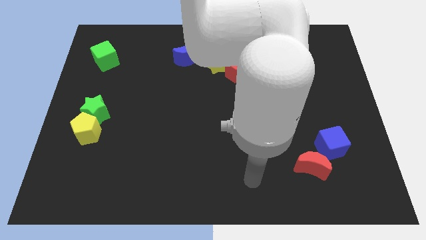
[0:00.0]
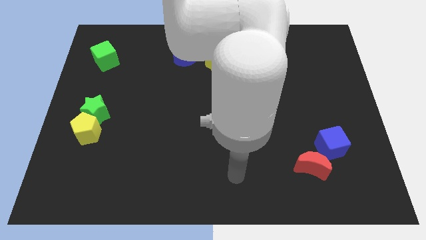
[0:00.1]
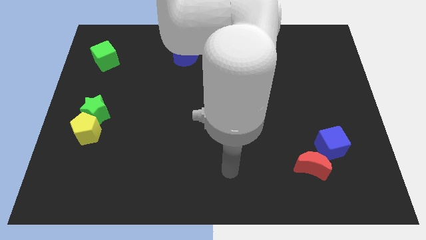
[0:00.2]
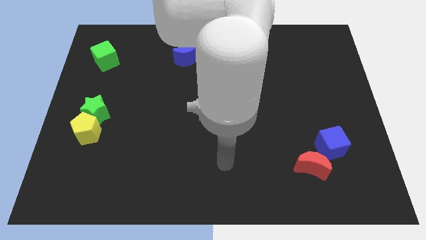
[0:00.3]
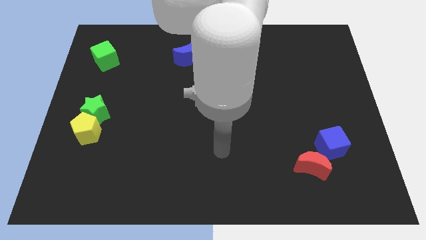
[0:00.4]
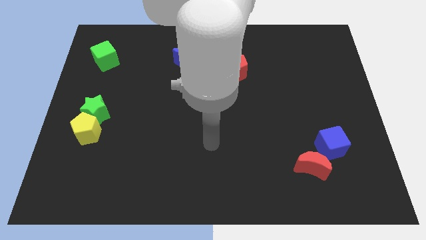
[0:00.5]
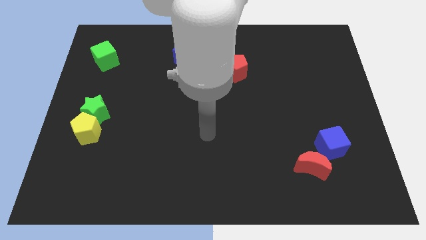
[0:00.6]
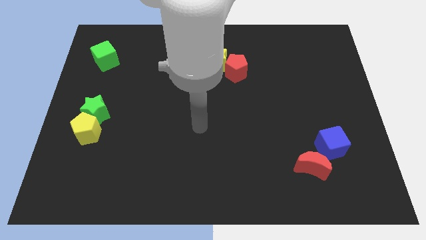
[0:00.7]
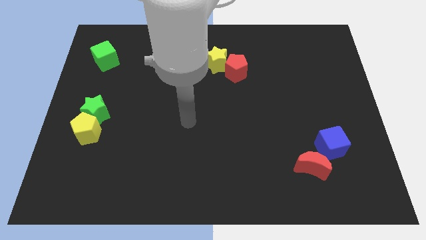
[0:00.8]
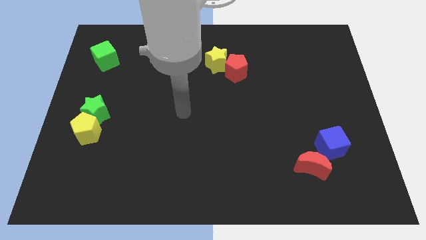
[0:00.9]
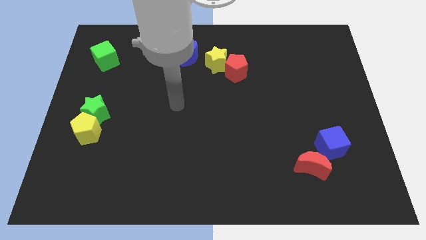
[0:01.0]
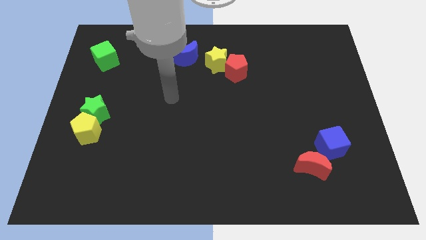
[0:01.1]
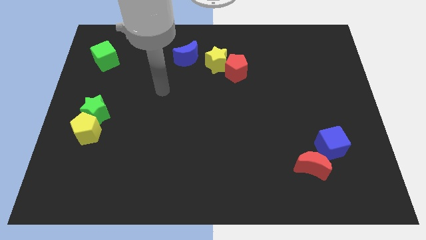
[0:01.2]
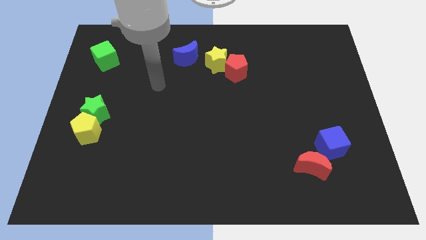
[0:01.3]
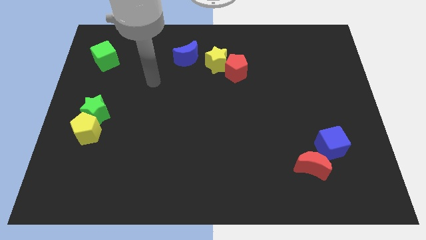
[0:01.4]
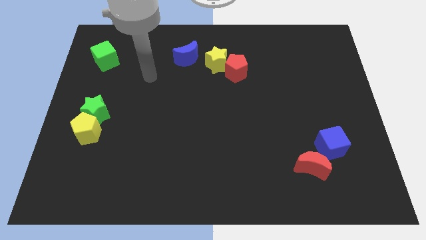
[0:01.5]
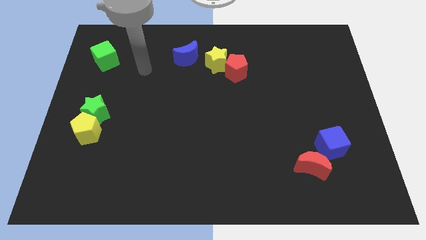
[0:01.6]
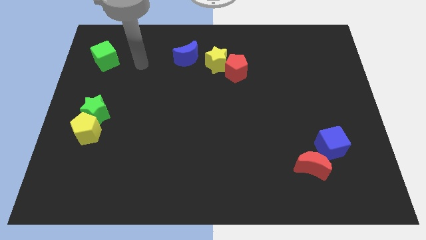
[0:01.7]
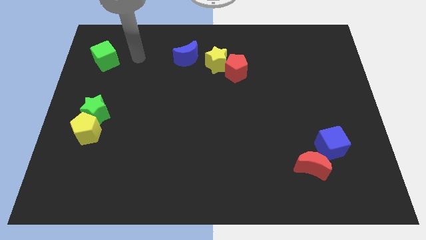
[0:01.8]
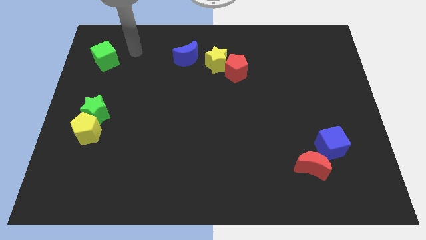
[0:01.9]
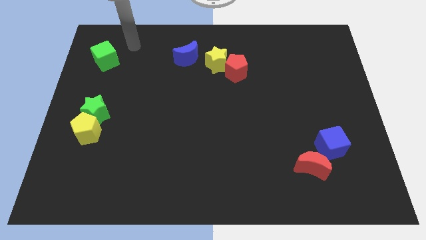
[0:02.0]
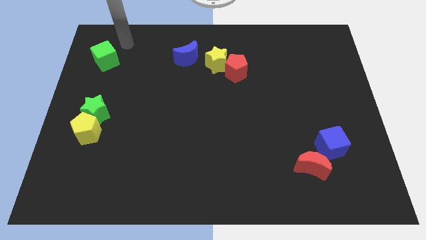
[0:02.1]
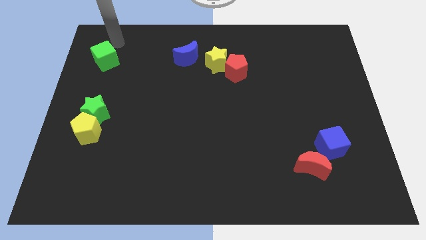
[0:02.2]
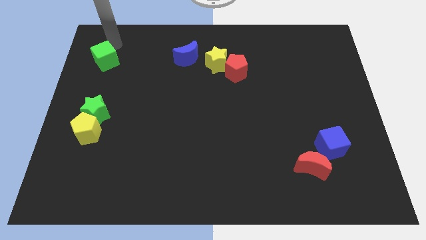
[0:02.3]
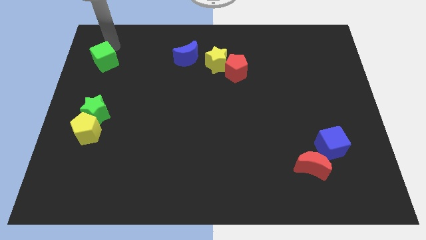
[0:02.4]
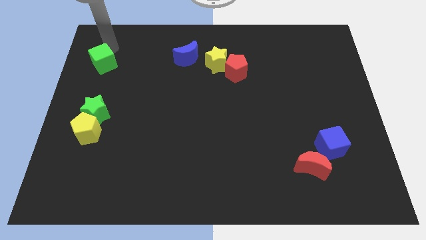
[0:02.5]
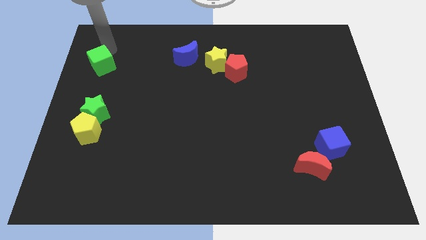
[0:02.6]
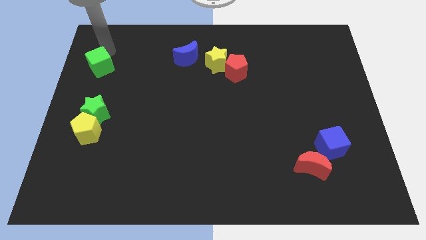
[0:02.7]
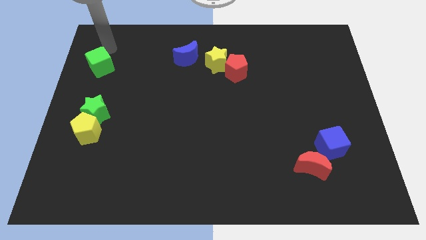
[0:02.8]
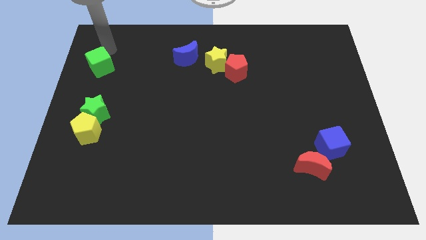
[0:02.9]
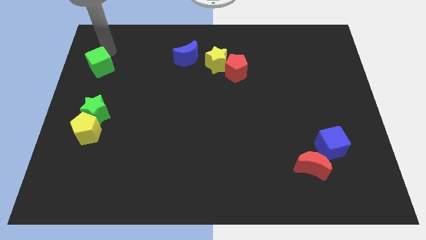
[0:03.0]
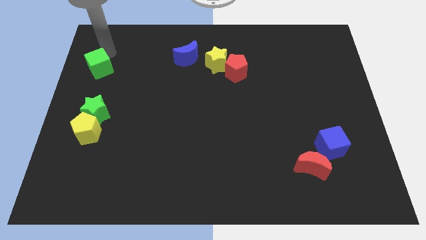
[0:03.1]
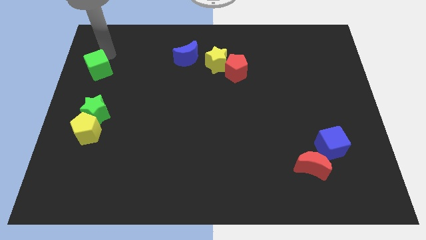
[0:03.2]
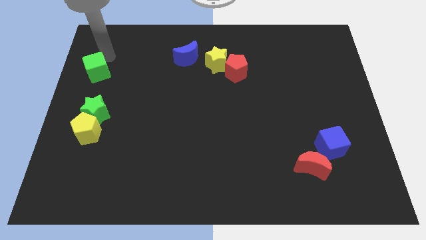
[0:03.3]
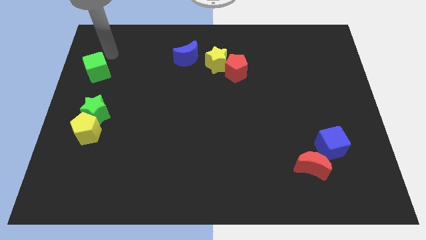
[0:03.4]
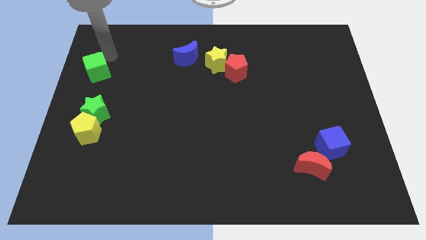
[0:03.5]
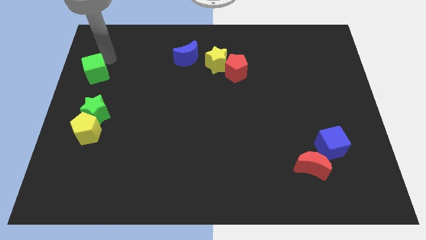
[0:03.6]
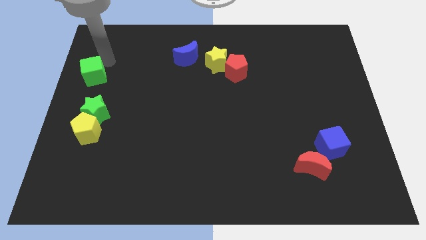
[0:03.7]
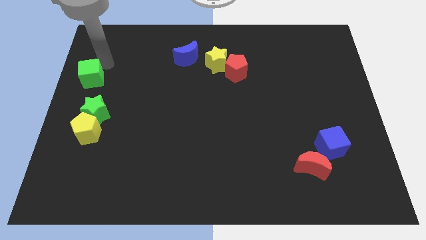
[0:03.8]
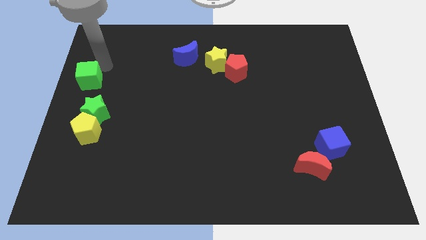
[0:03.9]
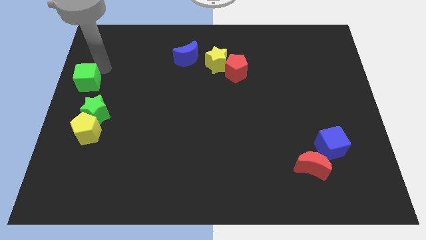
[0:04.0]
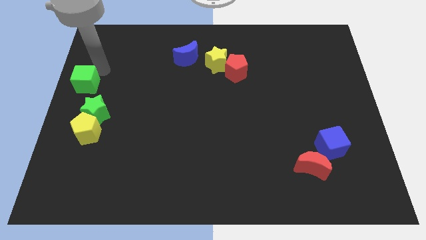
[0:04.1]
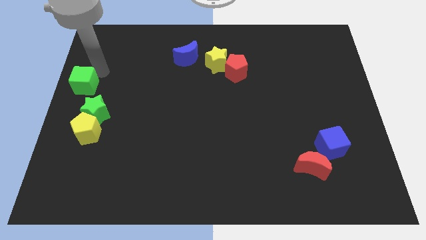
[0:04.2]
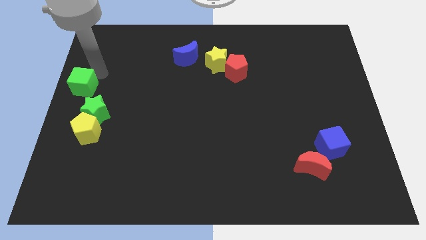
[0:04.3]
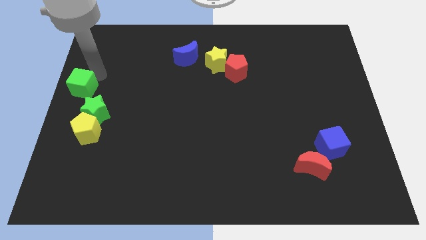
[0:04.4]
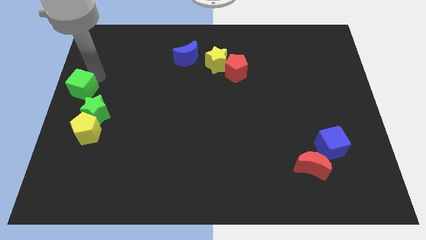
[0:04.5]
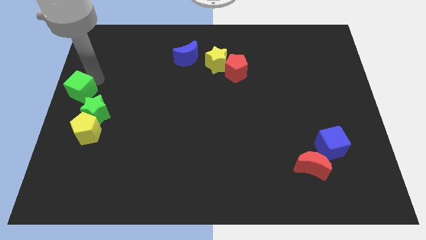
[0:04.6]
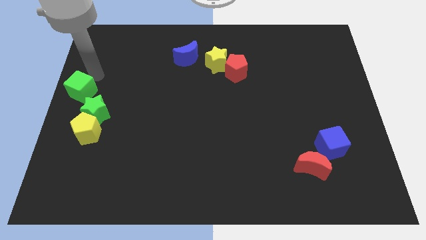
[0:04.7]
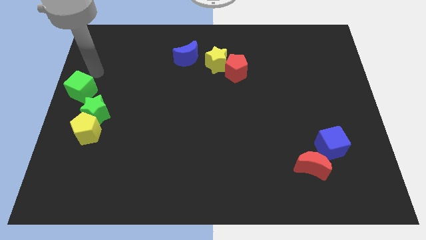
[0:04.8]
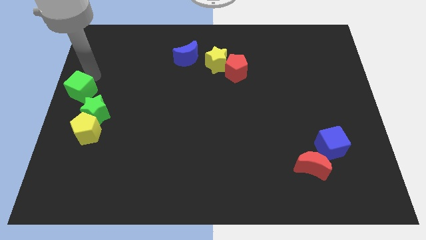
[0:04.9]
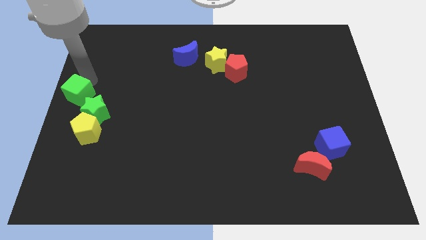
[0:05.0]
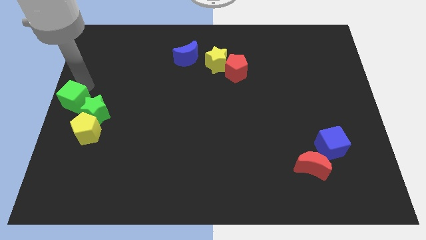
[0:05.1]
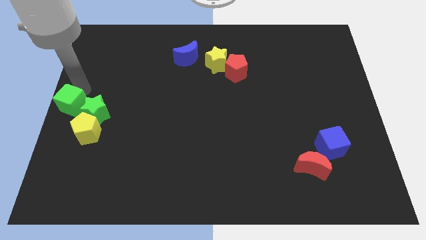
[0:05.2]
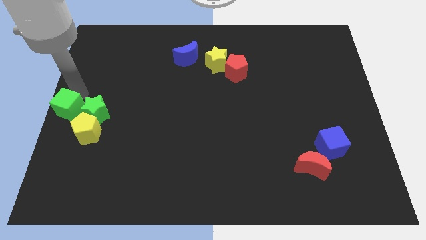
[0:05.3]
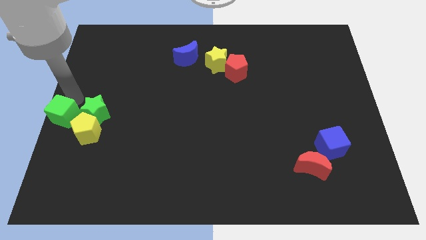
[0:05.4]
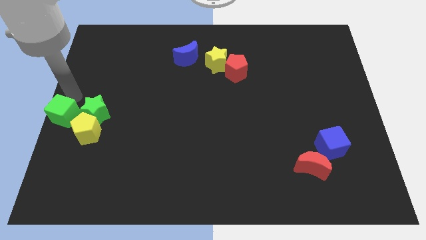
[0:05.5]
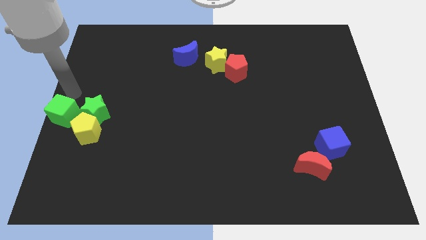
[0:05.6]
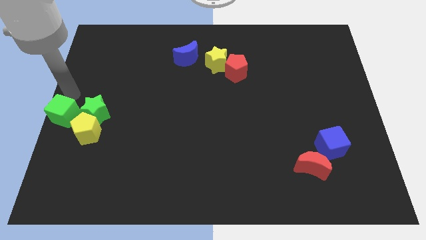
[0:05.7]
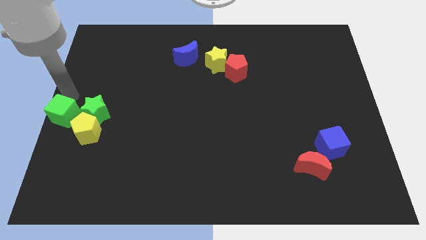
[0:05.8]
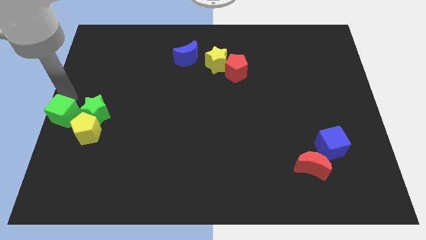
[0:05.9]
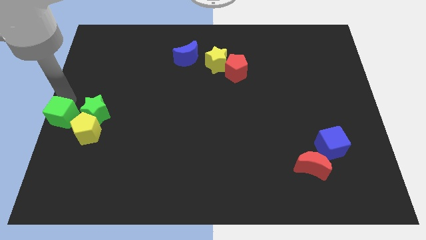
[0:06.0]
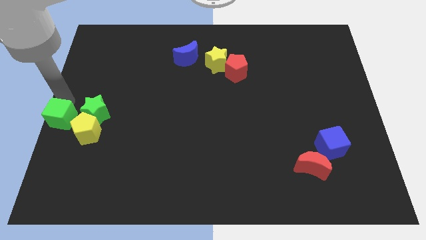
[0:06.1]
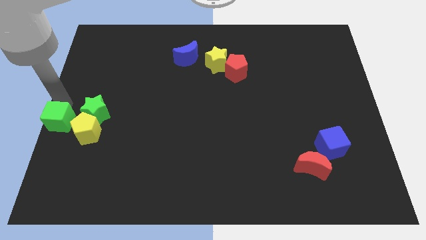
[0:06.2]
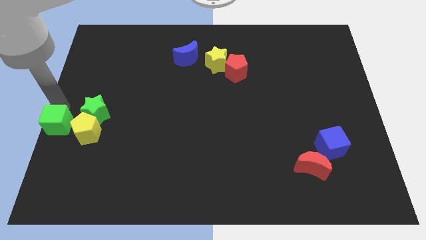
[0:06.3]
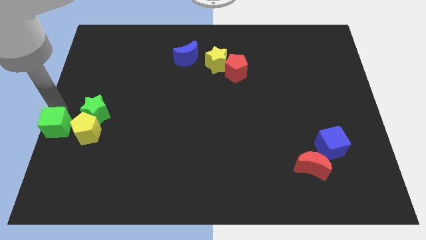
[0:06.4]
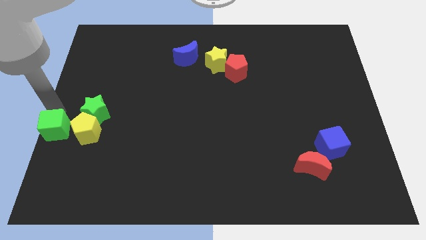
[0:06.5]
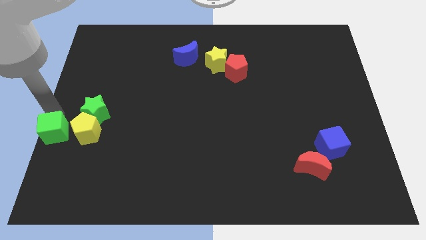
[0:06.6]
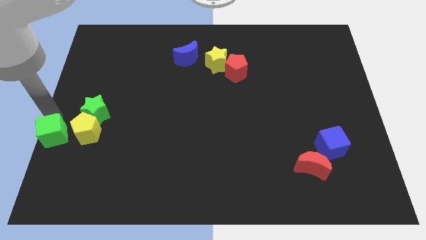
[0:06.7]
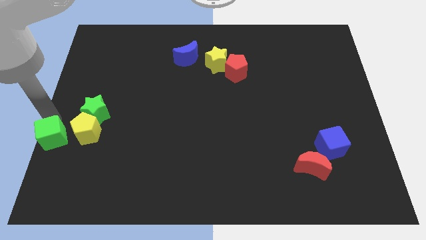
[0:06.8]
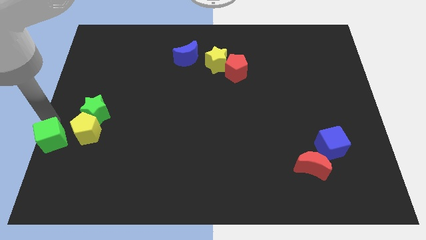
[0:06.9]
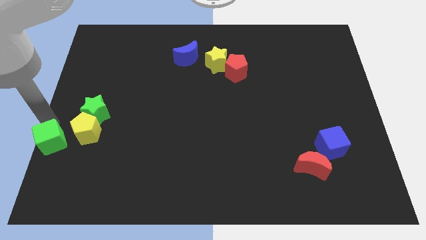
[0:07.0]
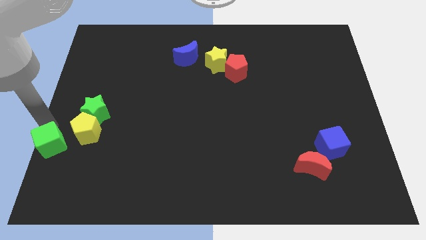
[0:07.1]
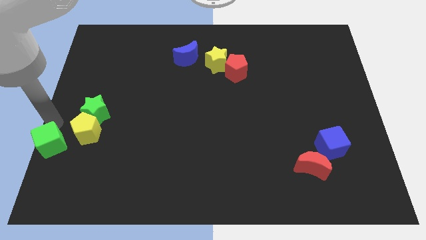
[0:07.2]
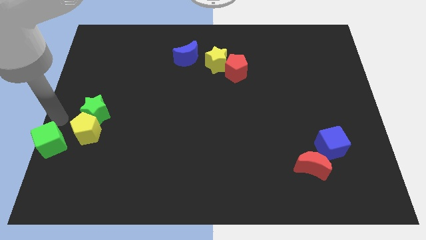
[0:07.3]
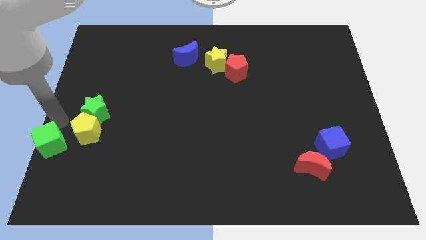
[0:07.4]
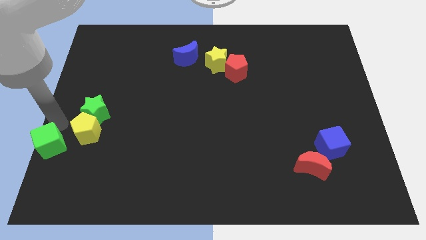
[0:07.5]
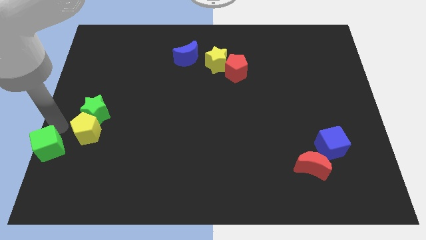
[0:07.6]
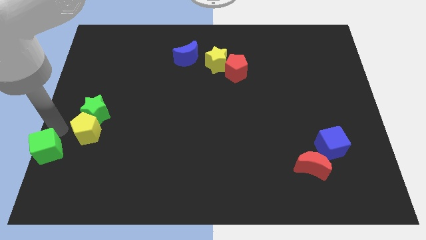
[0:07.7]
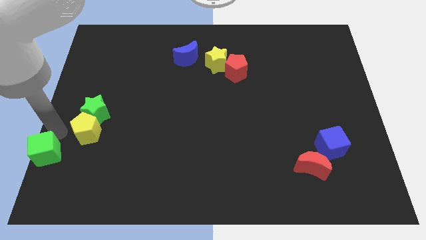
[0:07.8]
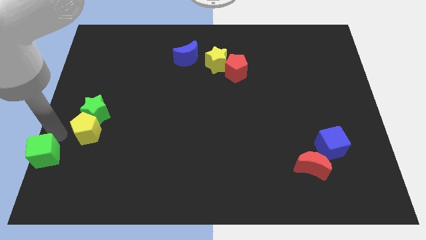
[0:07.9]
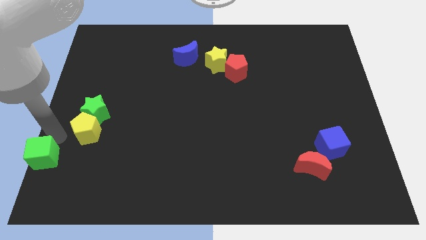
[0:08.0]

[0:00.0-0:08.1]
put the green cube to the lower left corner
